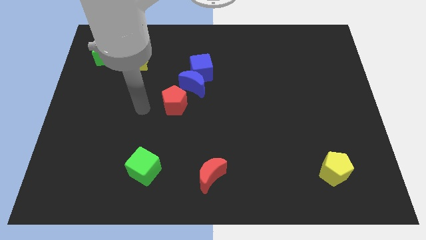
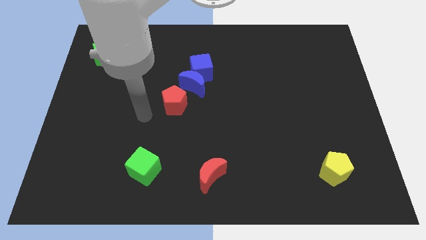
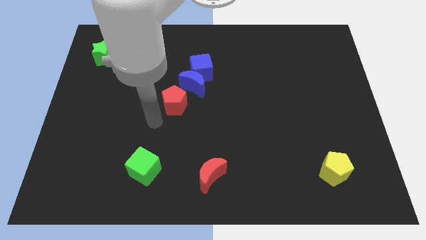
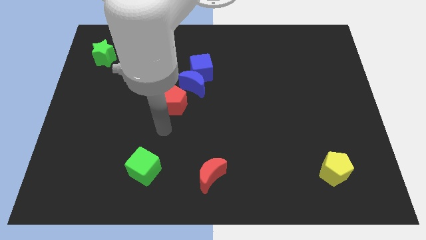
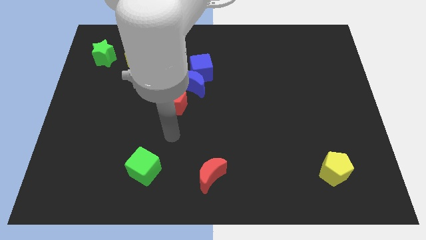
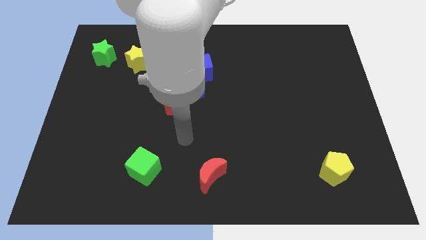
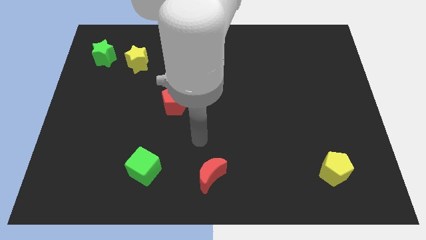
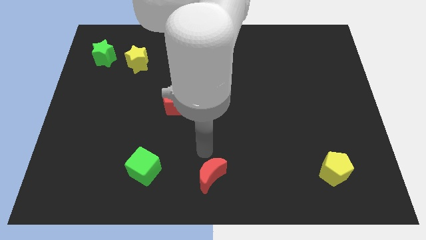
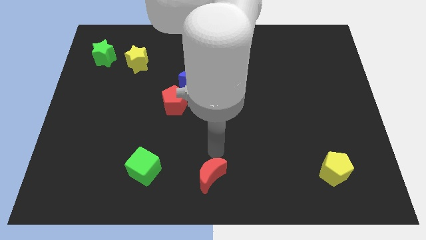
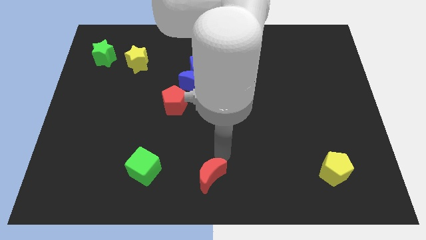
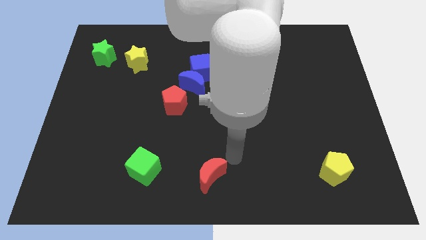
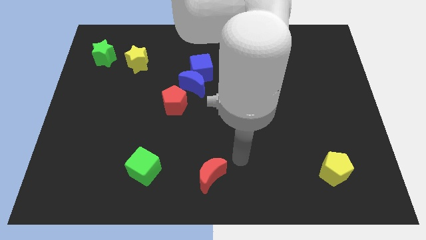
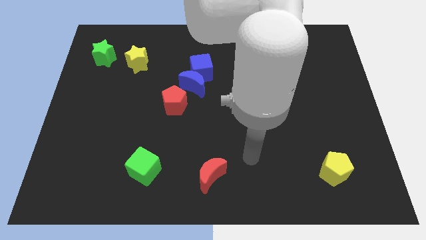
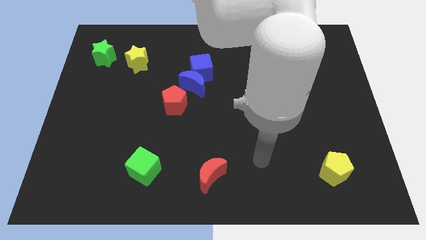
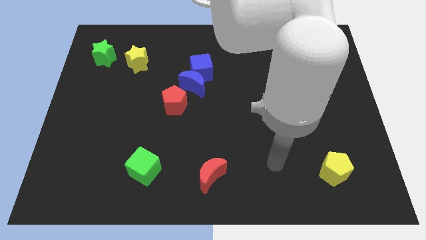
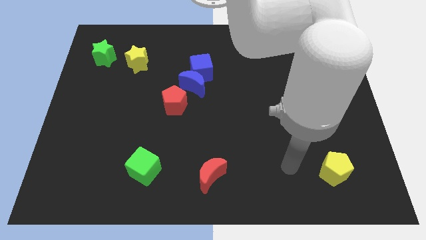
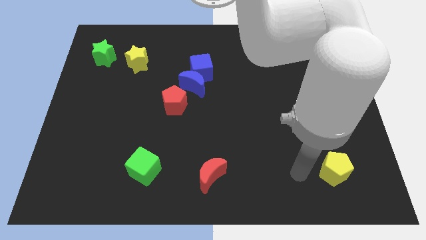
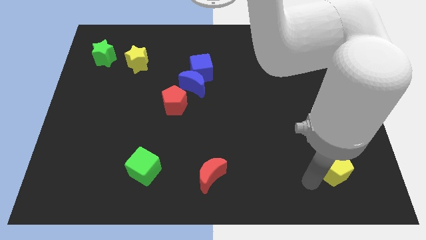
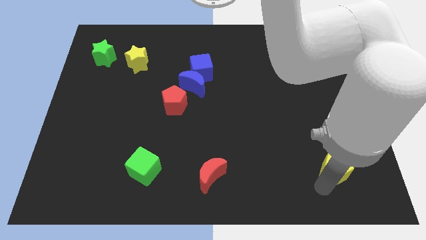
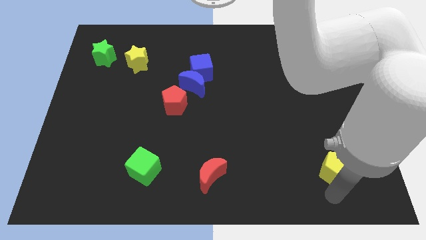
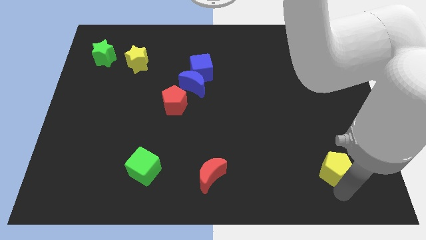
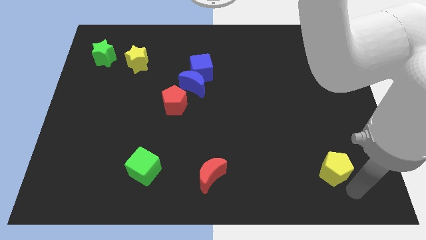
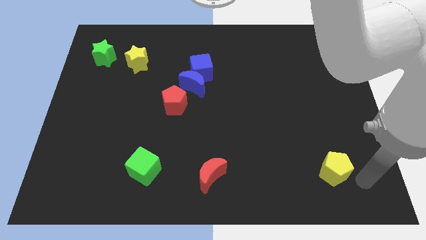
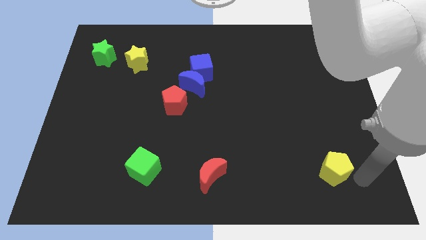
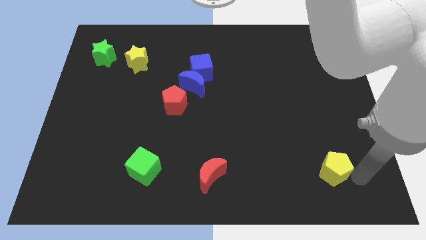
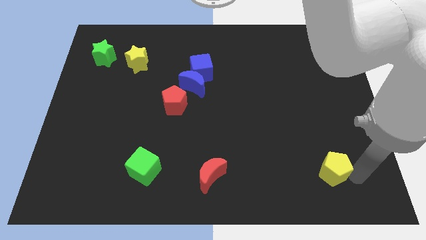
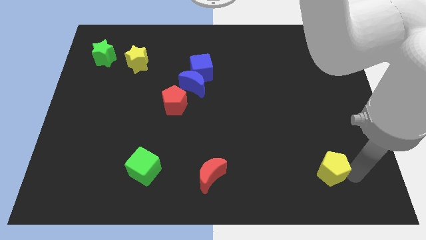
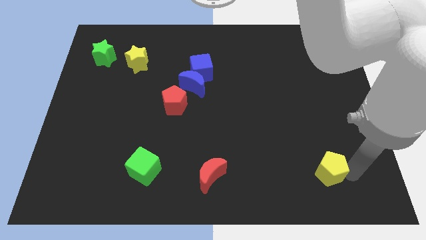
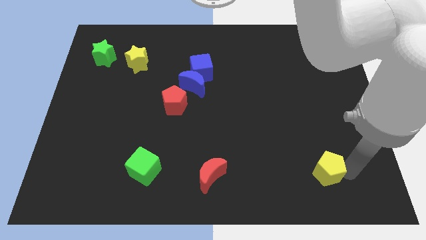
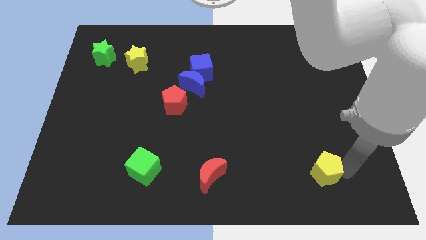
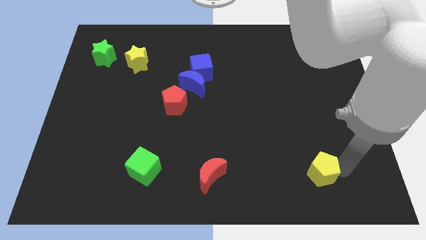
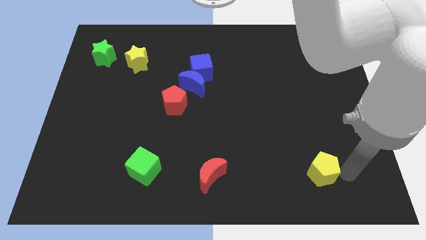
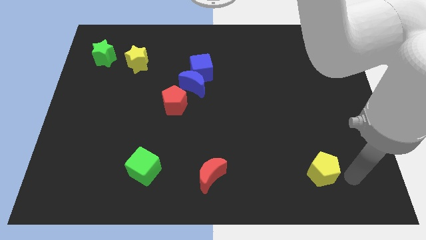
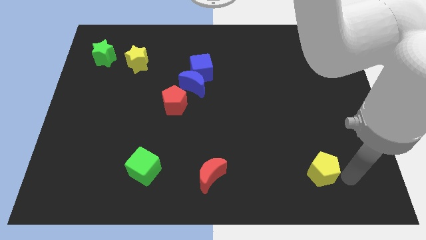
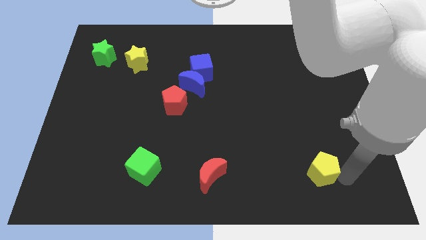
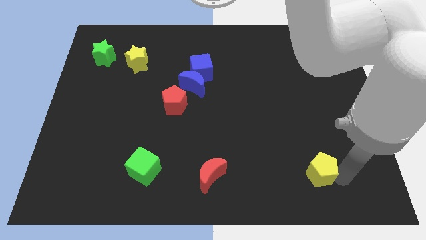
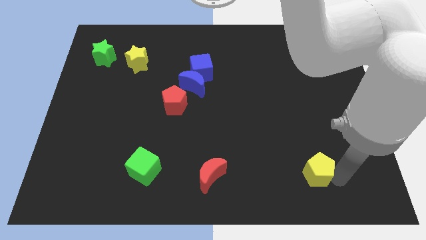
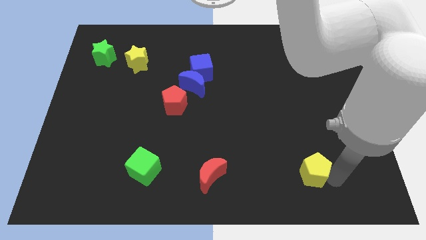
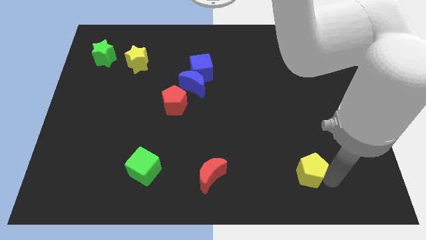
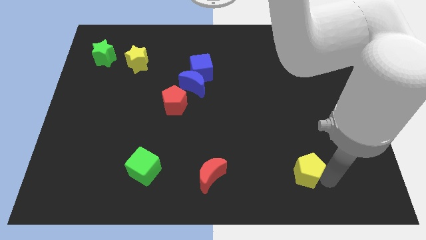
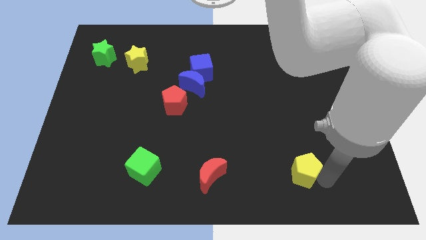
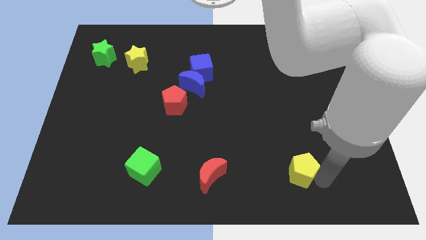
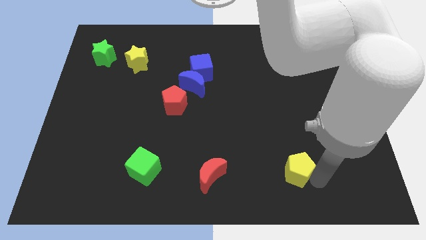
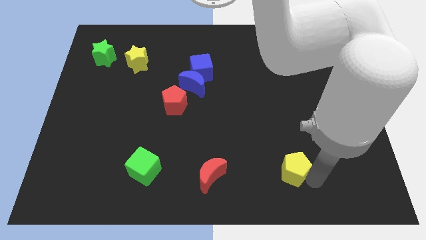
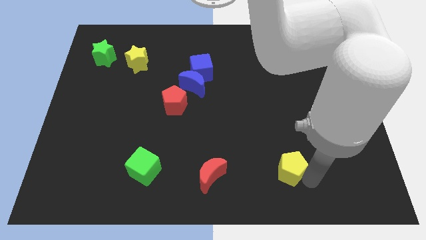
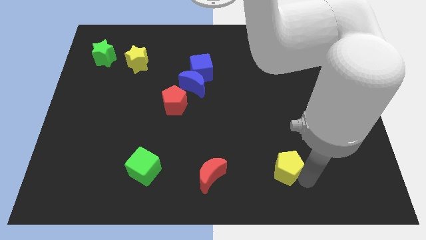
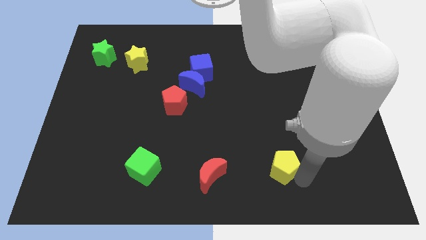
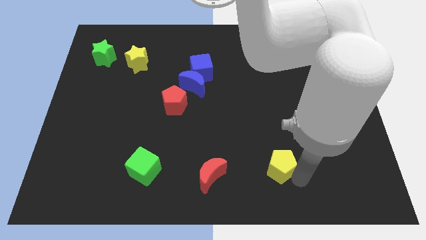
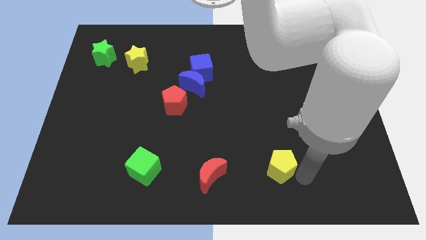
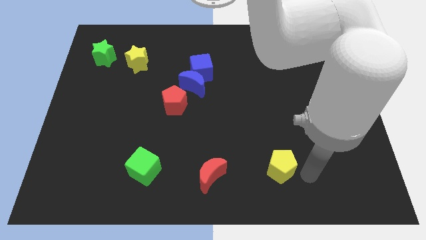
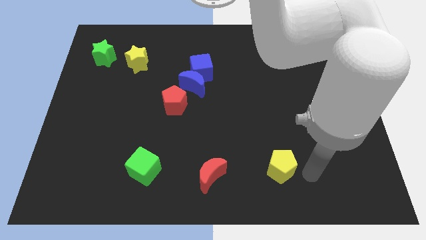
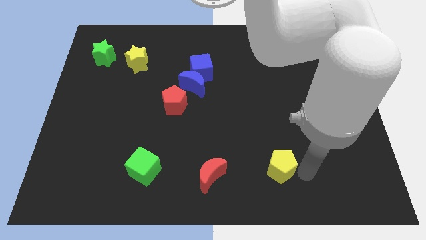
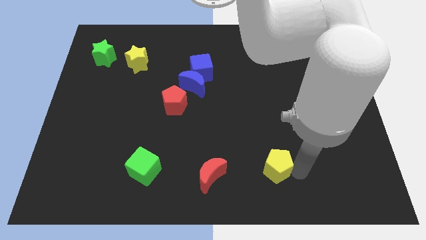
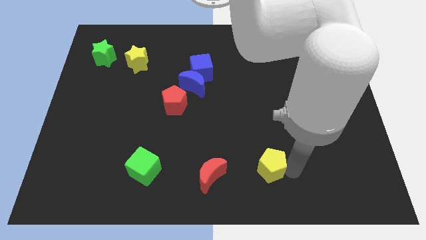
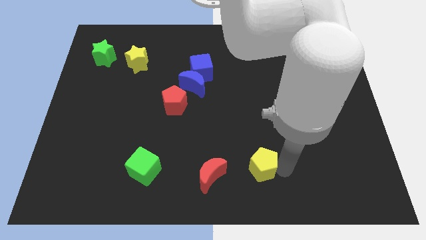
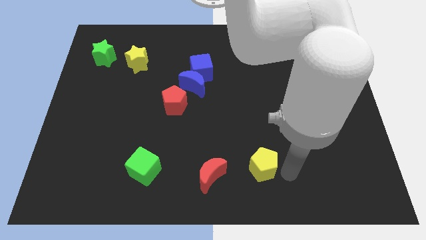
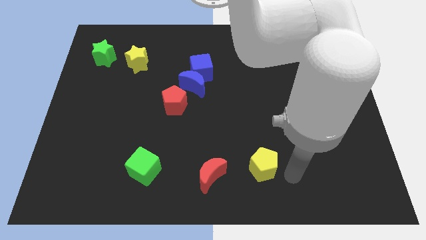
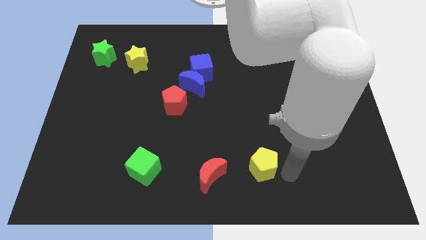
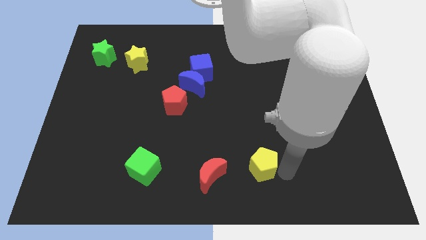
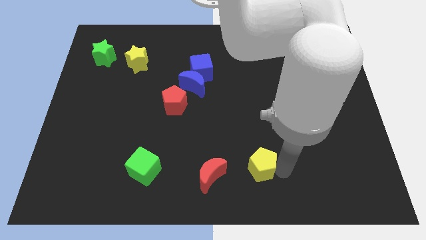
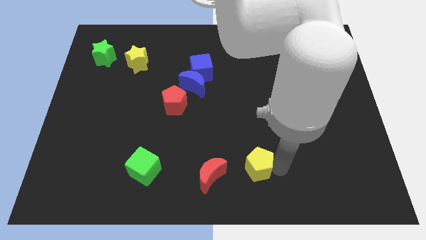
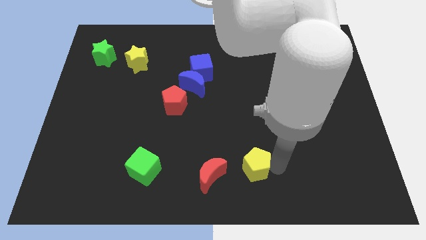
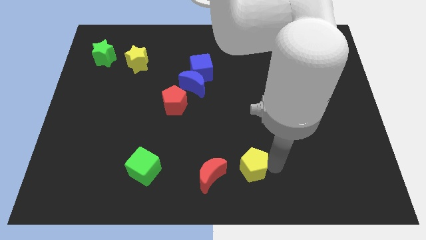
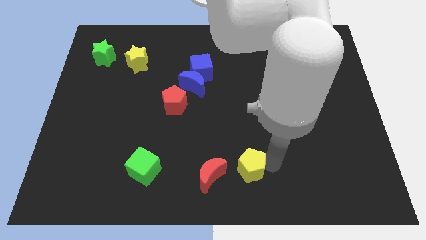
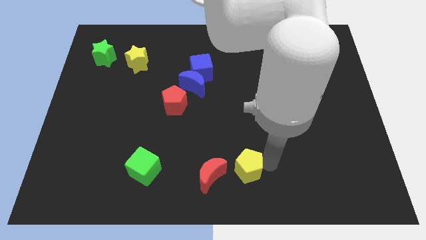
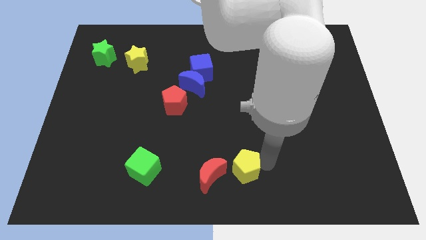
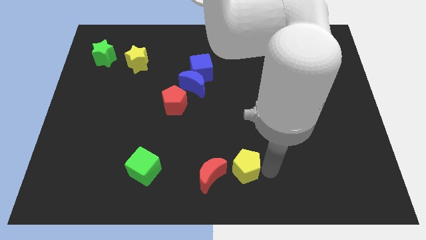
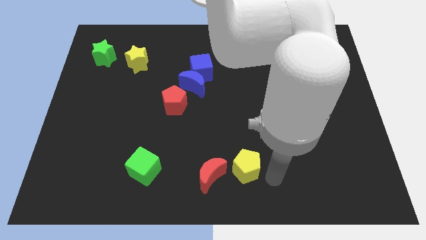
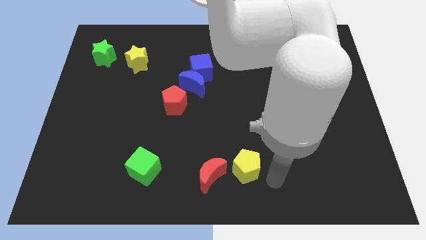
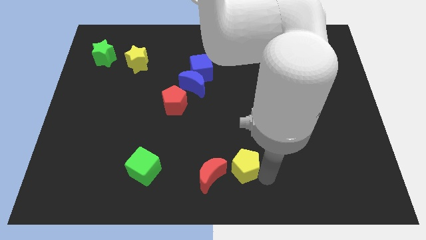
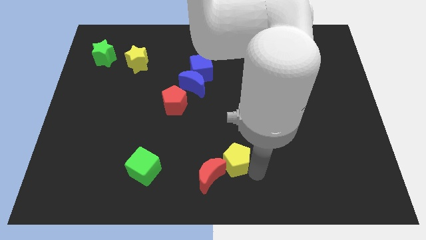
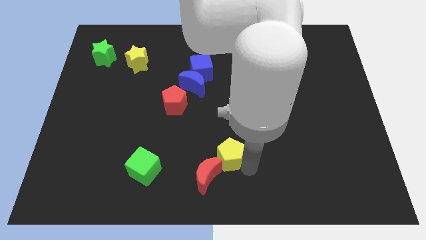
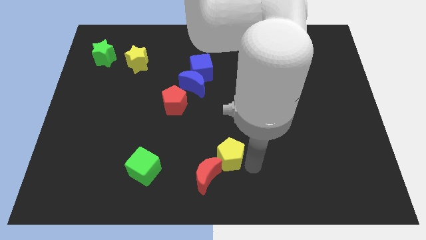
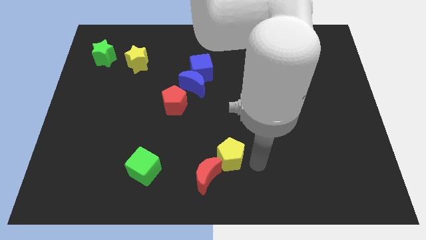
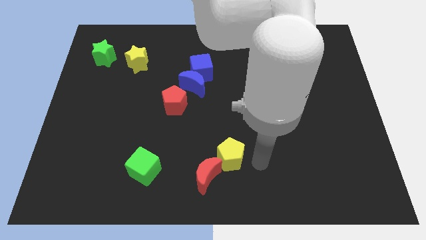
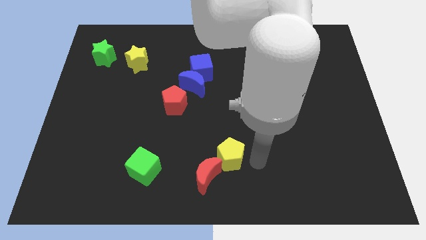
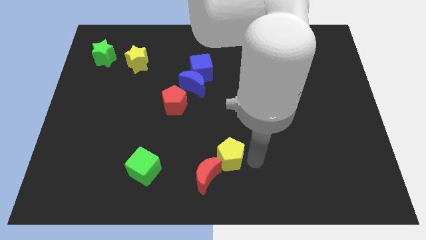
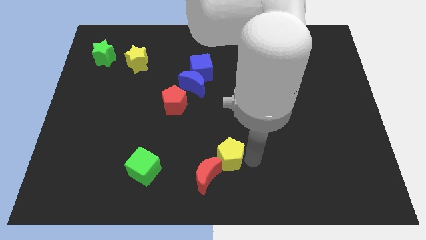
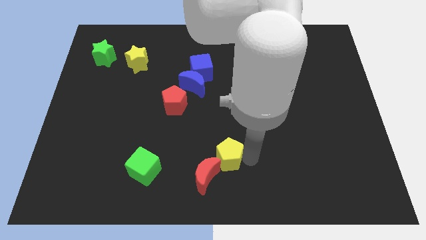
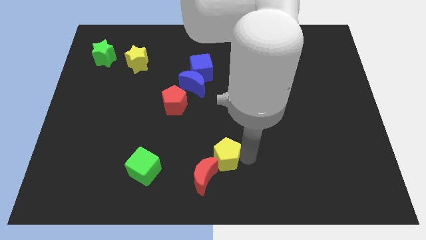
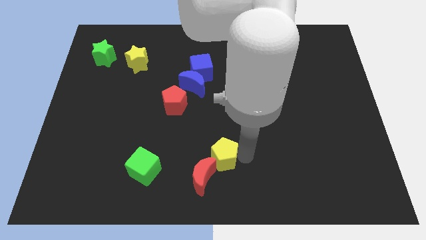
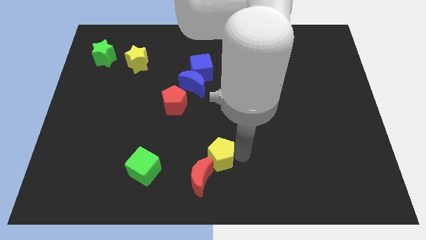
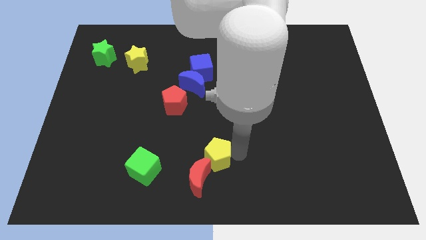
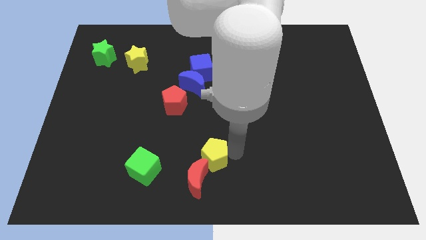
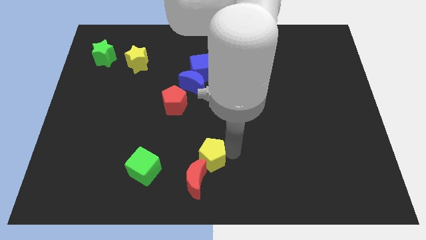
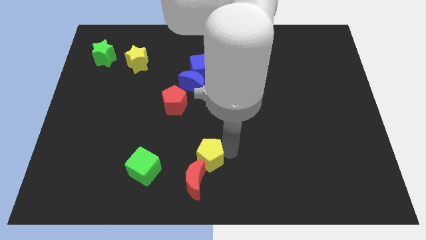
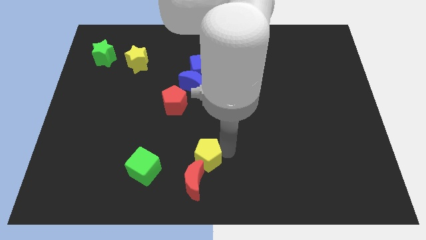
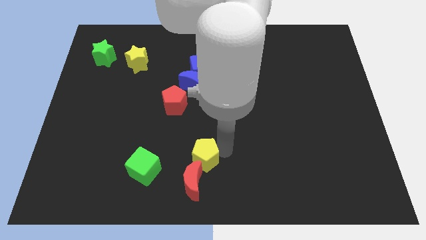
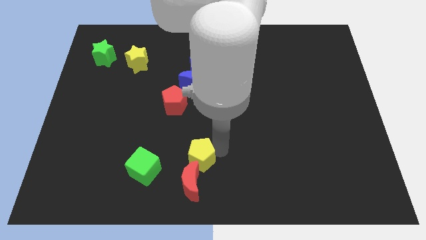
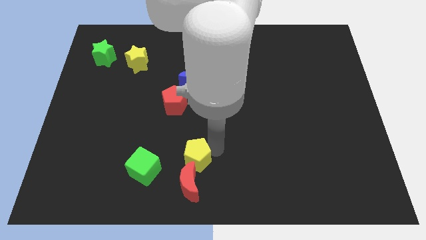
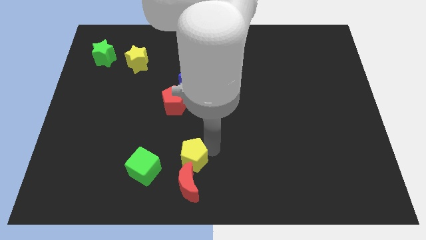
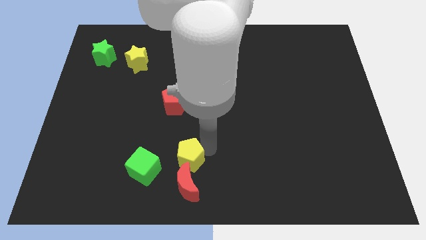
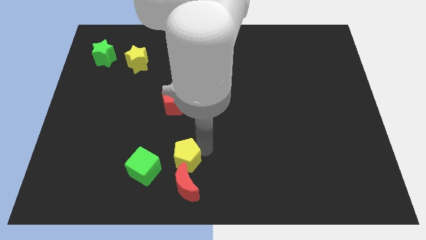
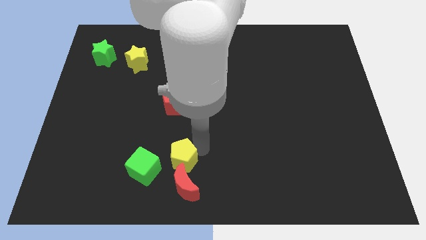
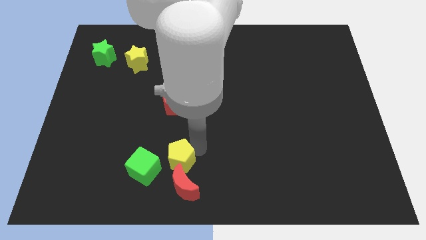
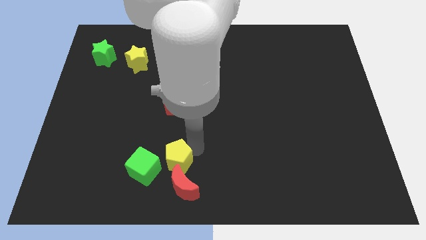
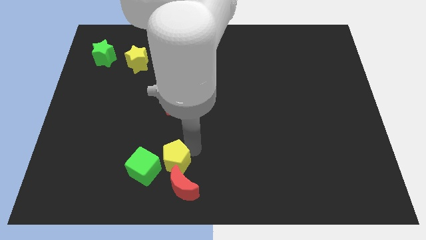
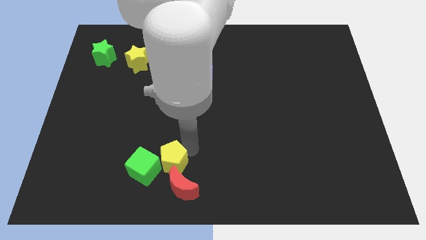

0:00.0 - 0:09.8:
put the yellow pentagon to the green cube
